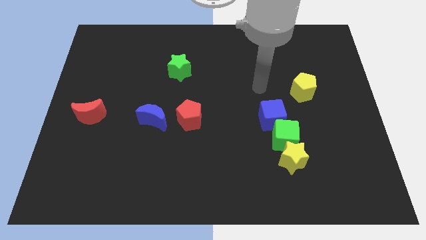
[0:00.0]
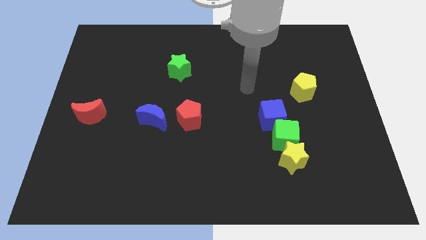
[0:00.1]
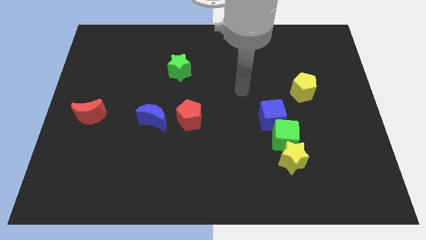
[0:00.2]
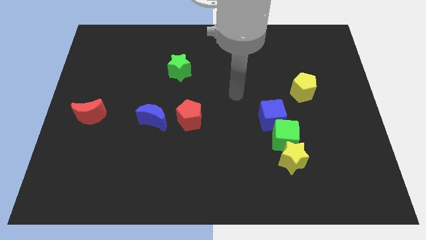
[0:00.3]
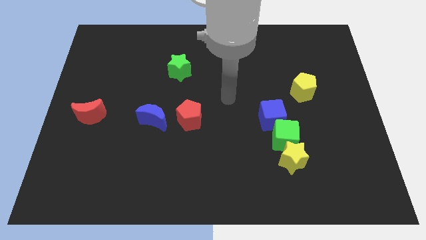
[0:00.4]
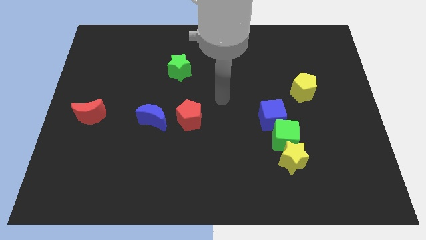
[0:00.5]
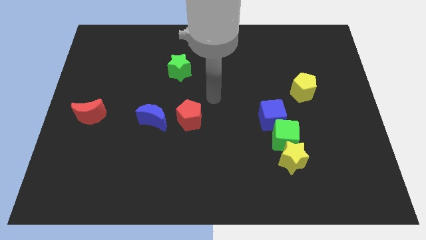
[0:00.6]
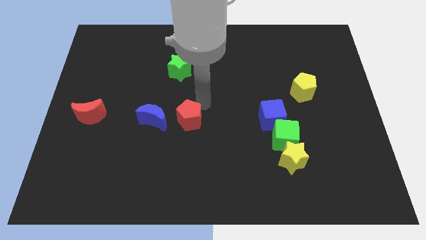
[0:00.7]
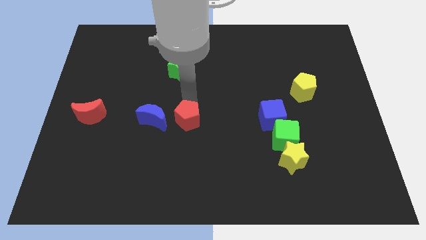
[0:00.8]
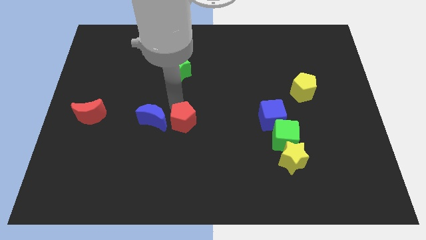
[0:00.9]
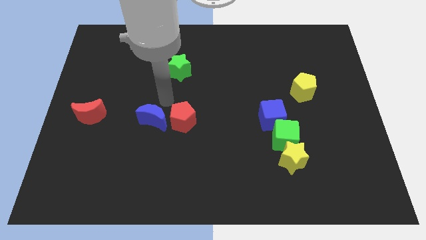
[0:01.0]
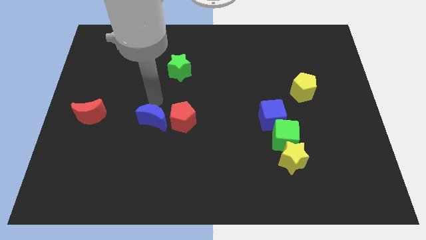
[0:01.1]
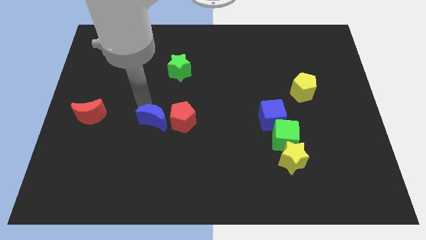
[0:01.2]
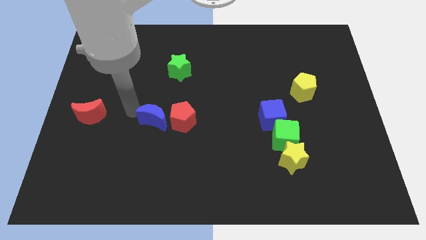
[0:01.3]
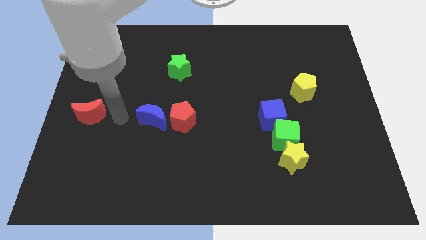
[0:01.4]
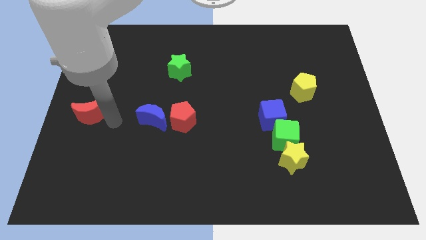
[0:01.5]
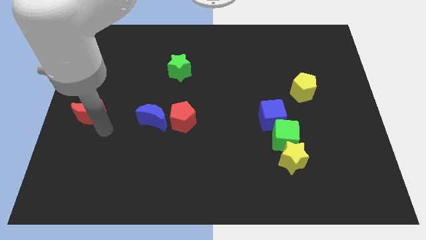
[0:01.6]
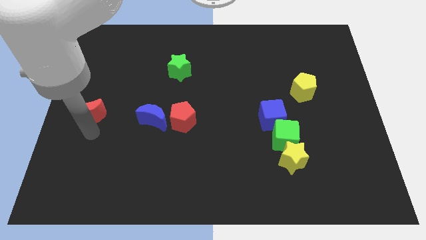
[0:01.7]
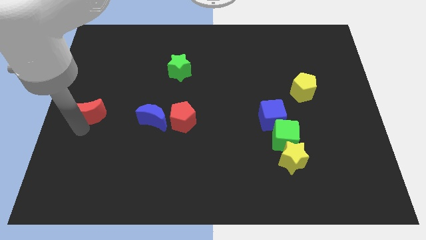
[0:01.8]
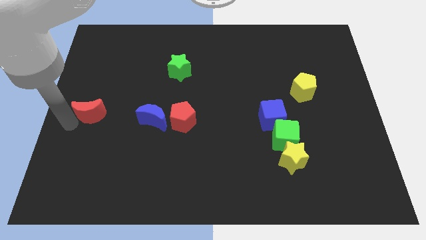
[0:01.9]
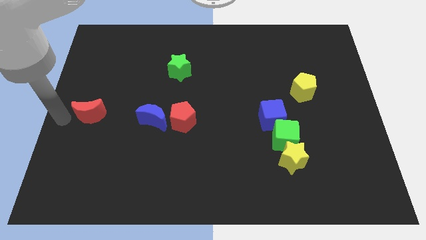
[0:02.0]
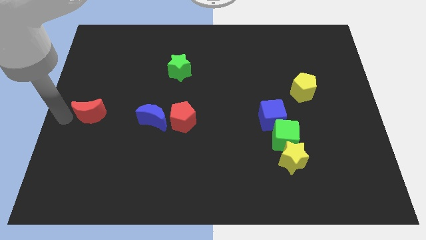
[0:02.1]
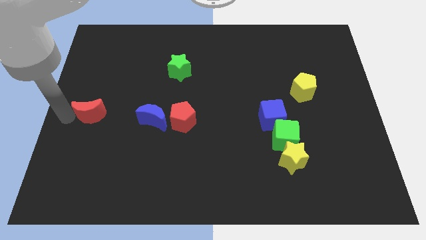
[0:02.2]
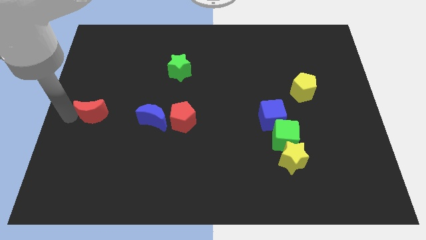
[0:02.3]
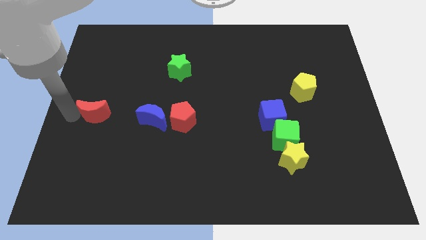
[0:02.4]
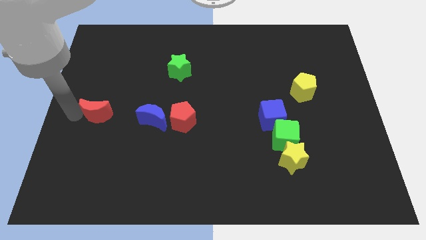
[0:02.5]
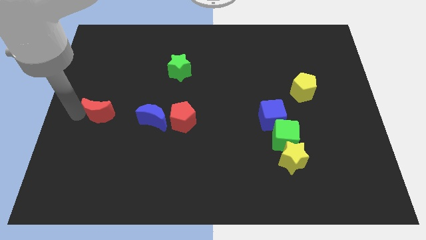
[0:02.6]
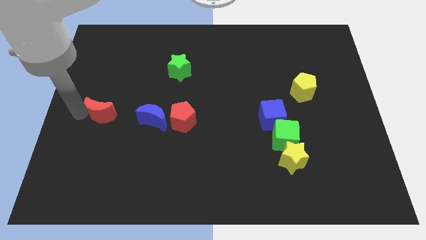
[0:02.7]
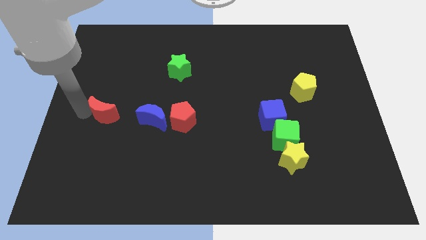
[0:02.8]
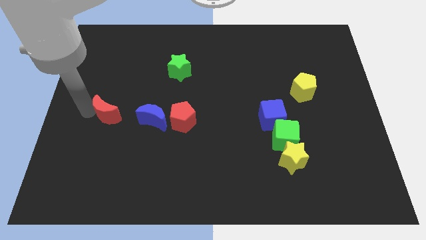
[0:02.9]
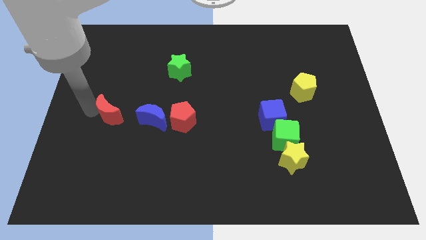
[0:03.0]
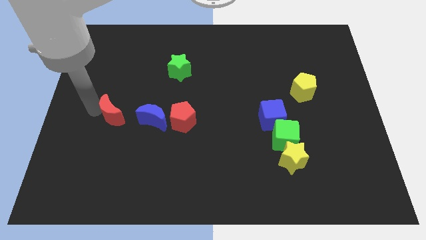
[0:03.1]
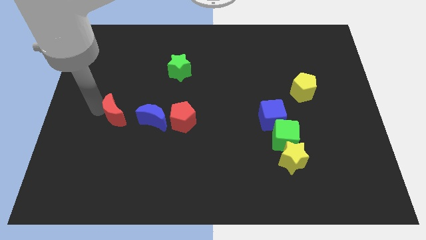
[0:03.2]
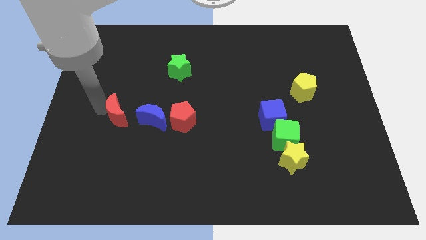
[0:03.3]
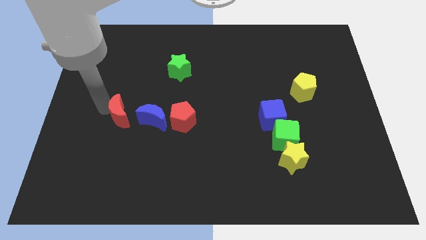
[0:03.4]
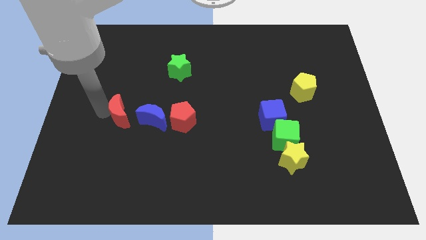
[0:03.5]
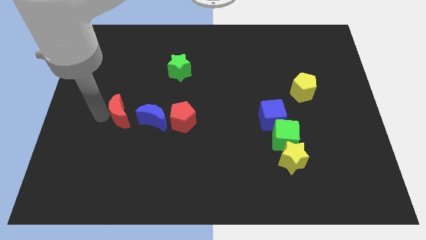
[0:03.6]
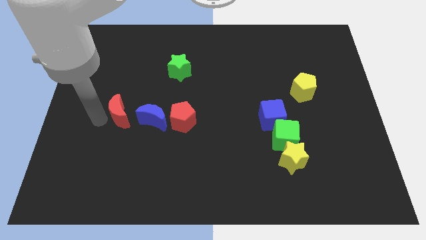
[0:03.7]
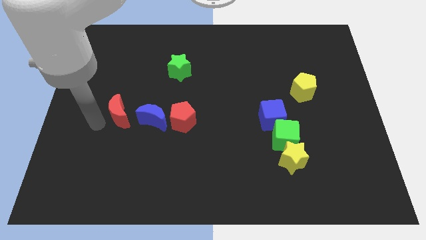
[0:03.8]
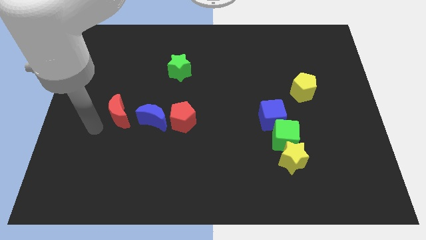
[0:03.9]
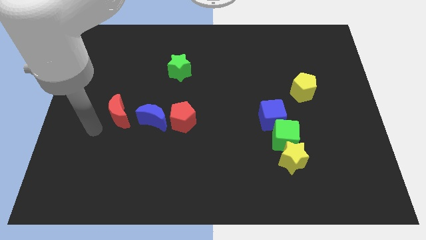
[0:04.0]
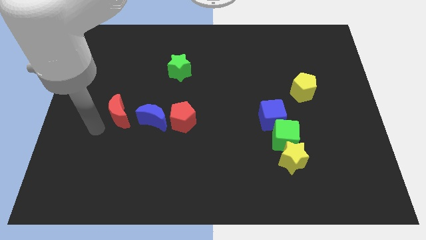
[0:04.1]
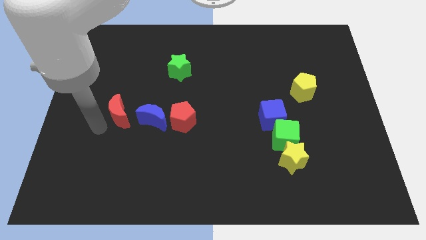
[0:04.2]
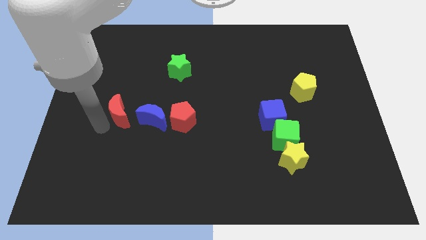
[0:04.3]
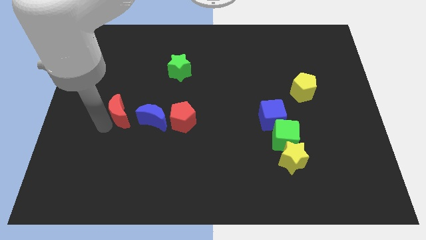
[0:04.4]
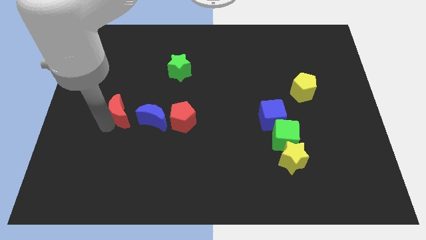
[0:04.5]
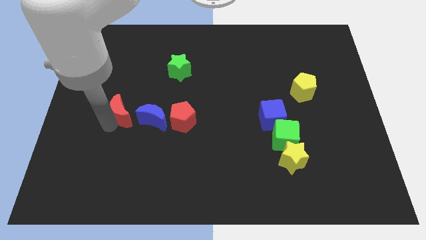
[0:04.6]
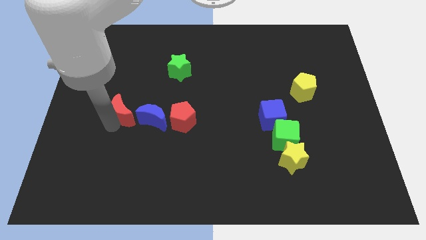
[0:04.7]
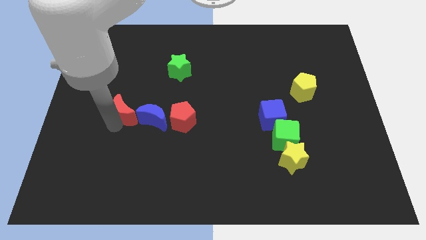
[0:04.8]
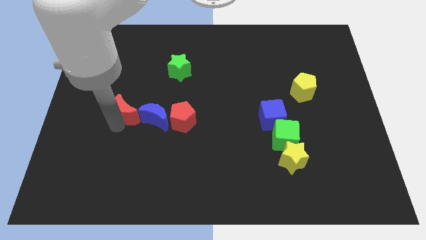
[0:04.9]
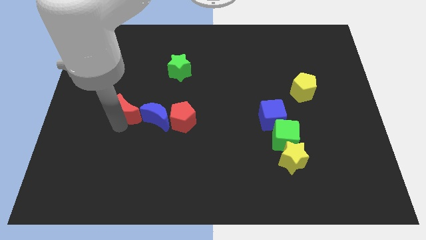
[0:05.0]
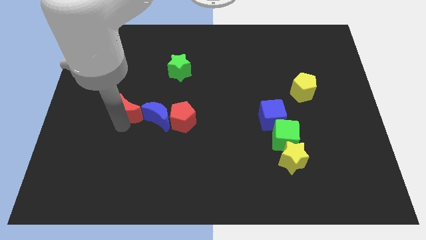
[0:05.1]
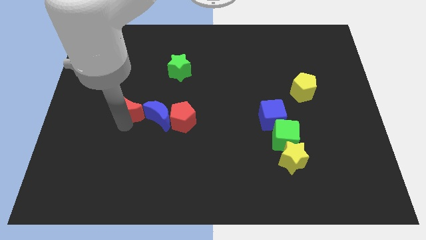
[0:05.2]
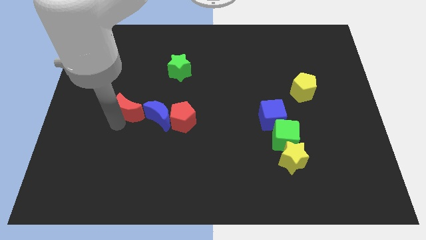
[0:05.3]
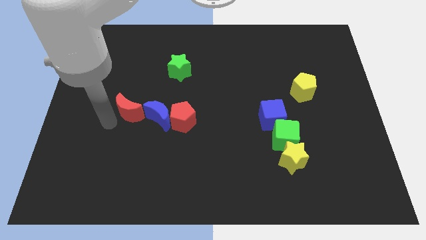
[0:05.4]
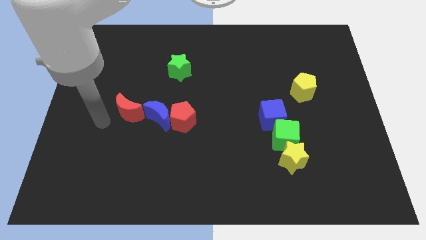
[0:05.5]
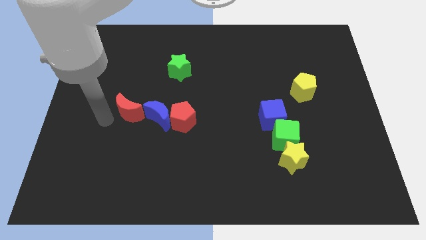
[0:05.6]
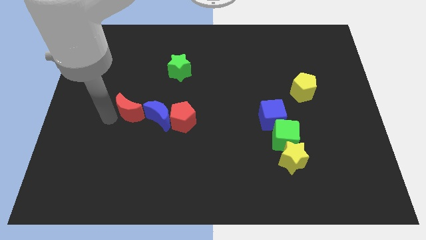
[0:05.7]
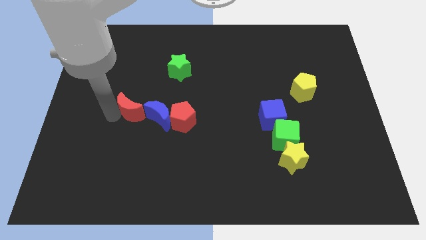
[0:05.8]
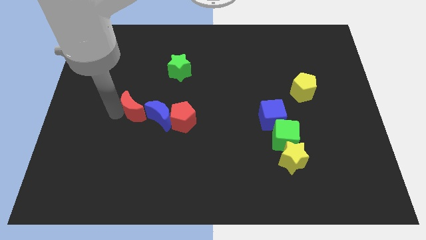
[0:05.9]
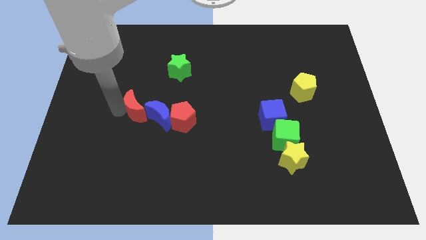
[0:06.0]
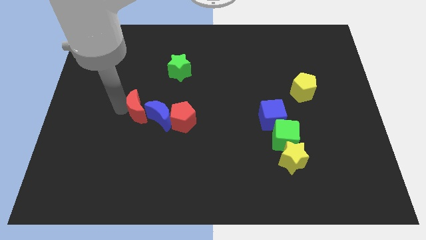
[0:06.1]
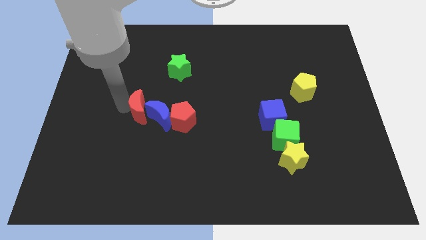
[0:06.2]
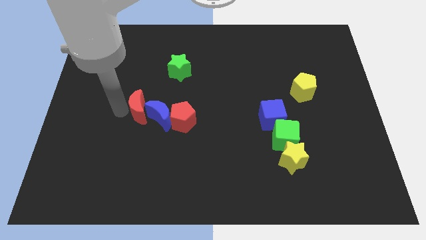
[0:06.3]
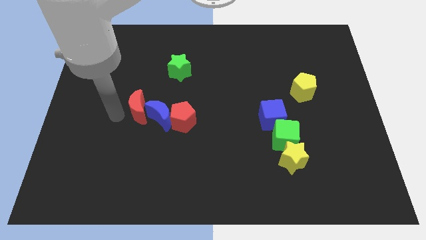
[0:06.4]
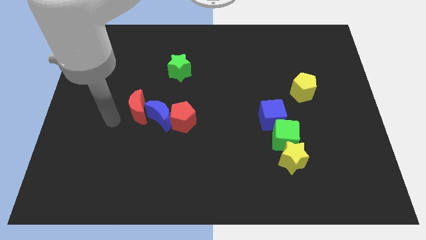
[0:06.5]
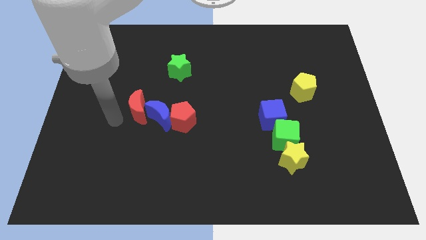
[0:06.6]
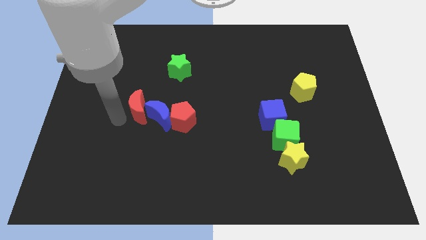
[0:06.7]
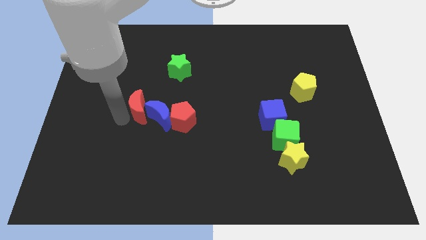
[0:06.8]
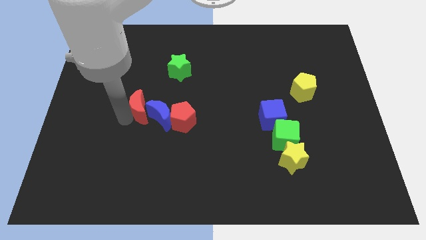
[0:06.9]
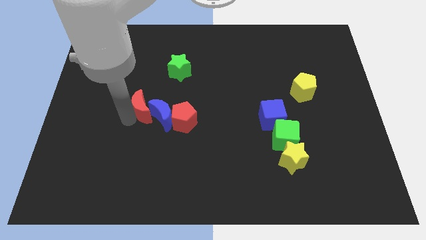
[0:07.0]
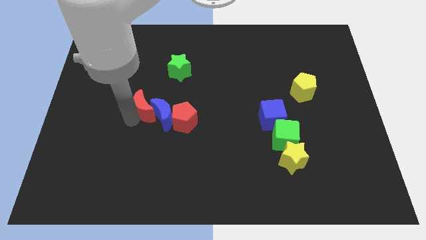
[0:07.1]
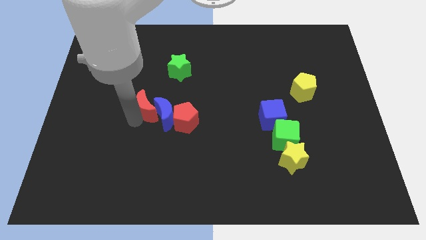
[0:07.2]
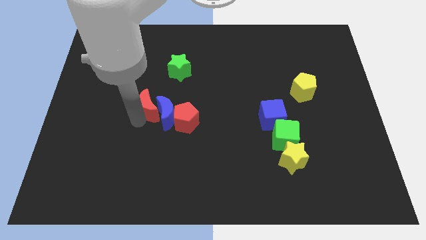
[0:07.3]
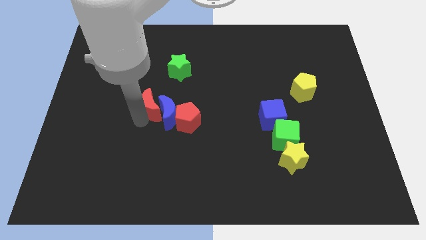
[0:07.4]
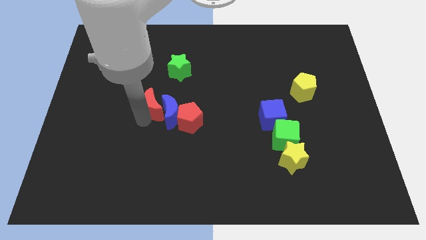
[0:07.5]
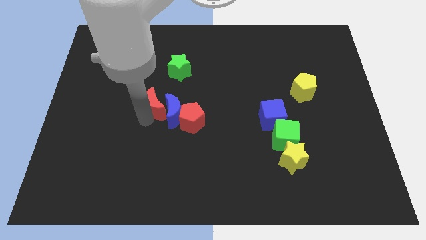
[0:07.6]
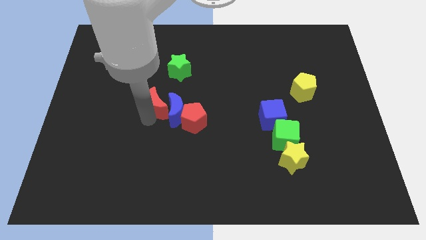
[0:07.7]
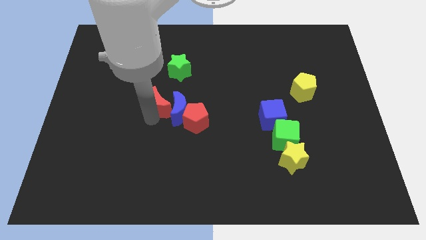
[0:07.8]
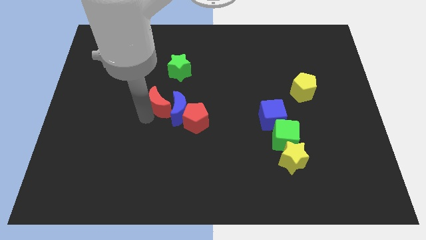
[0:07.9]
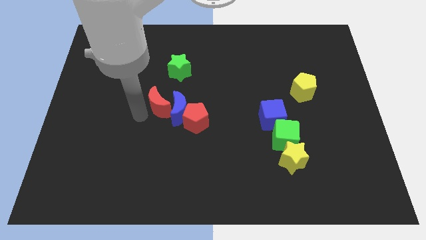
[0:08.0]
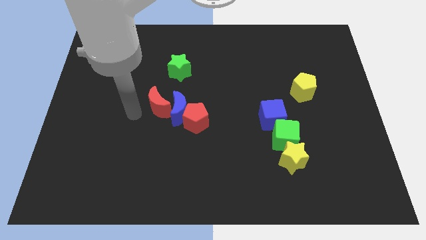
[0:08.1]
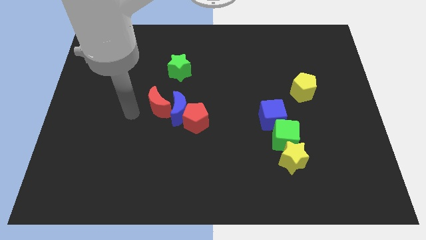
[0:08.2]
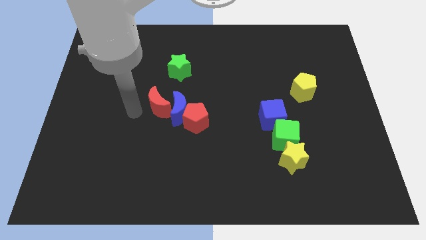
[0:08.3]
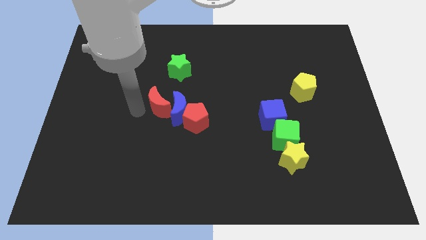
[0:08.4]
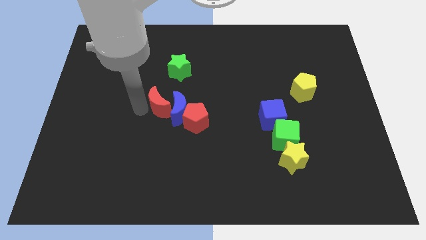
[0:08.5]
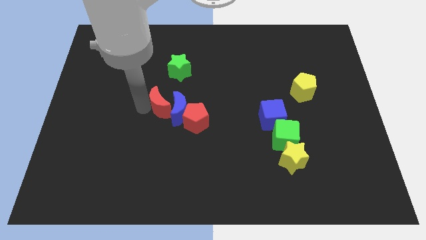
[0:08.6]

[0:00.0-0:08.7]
move the red moon to the center
